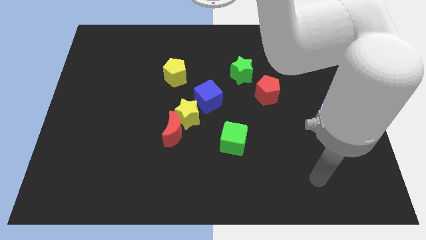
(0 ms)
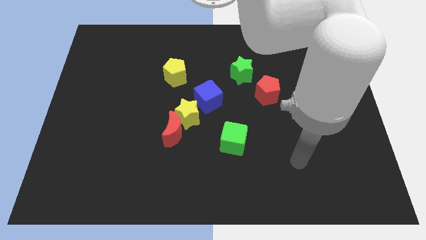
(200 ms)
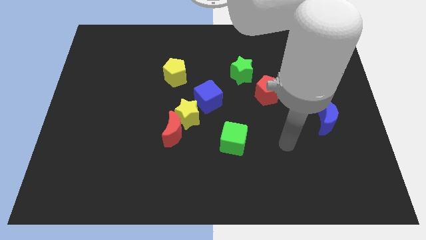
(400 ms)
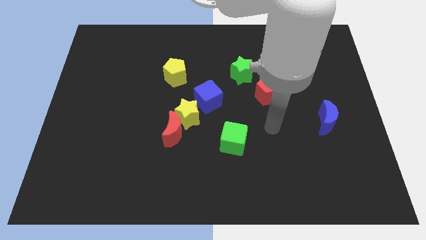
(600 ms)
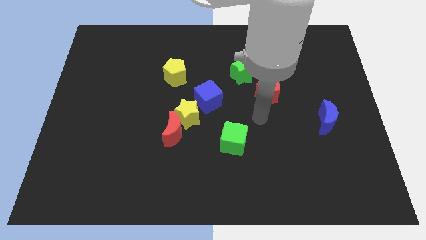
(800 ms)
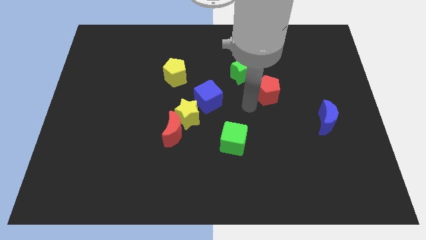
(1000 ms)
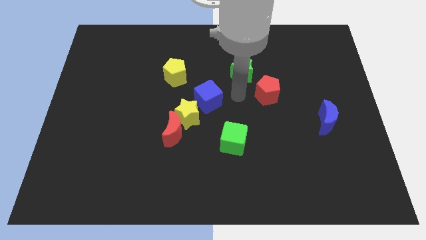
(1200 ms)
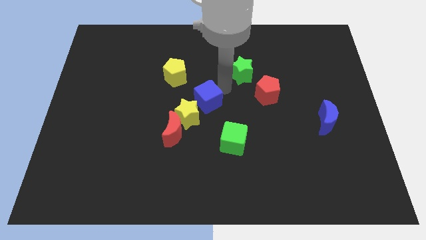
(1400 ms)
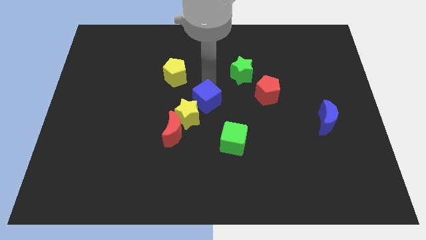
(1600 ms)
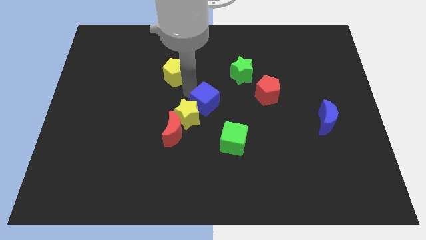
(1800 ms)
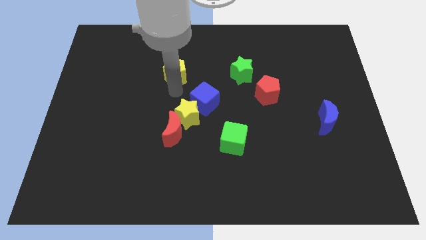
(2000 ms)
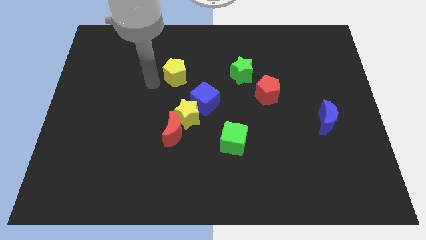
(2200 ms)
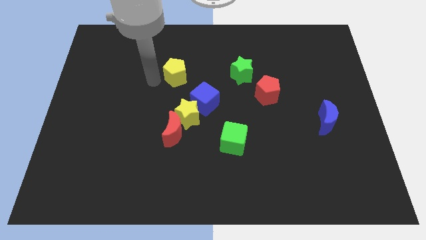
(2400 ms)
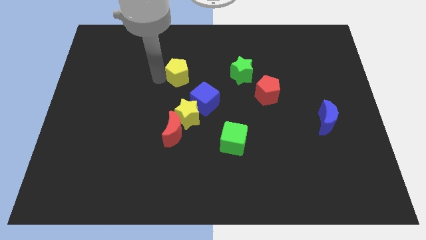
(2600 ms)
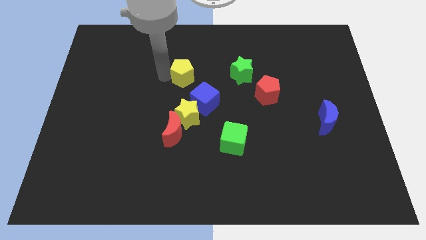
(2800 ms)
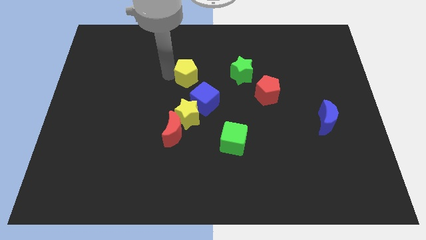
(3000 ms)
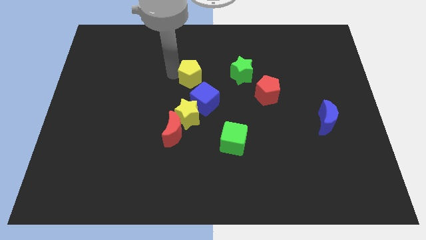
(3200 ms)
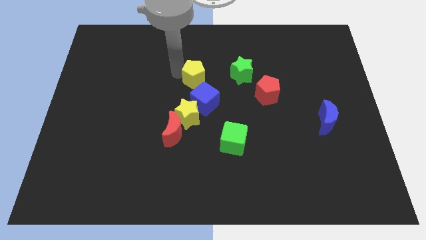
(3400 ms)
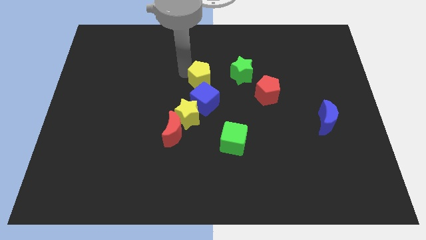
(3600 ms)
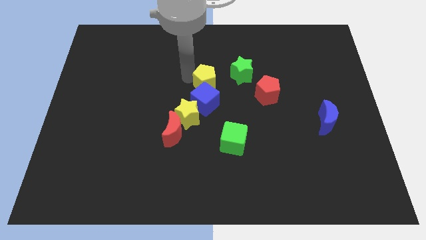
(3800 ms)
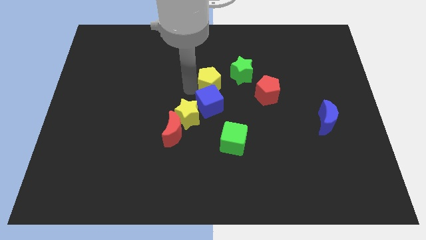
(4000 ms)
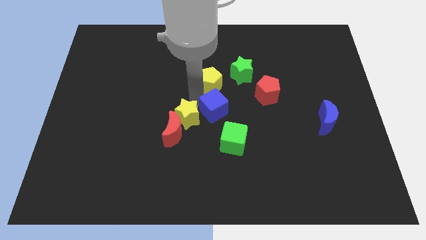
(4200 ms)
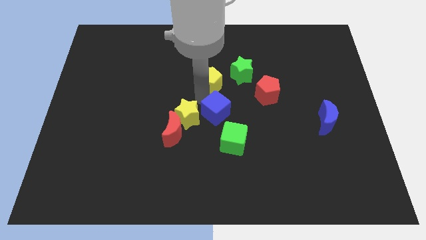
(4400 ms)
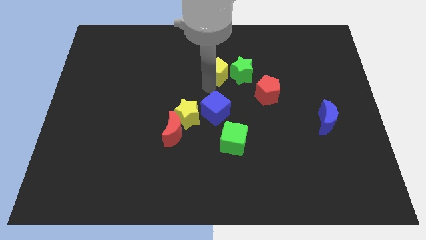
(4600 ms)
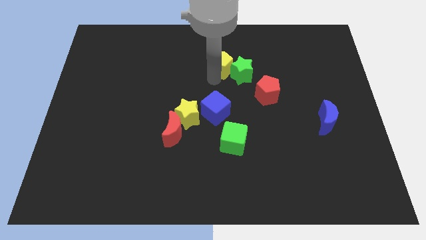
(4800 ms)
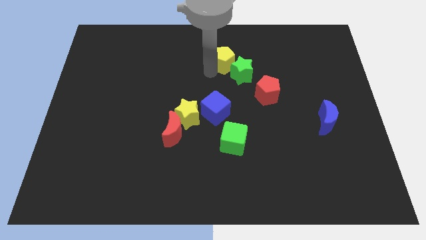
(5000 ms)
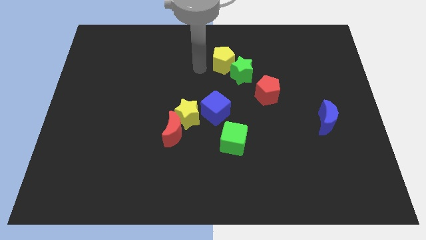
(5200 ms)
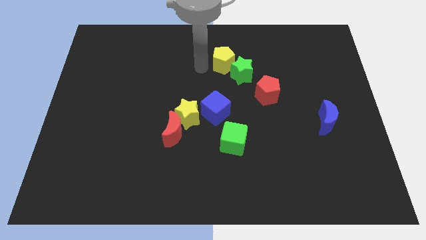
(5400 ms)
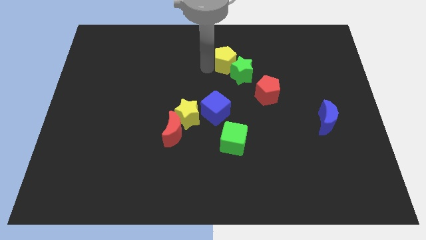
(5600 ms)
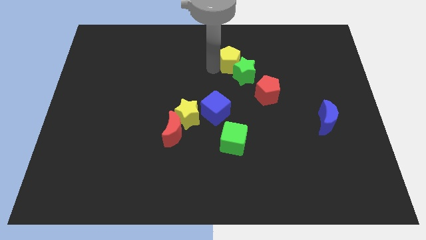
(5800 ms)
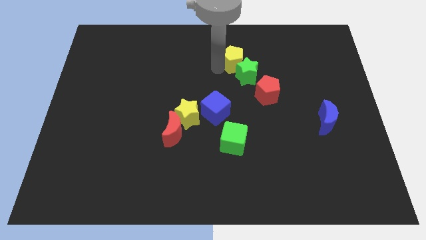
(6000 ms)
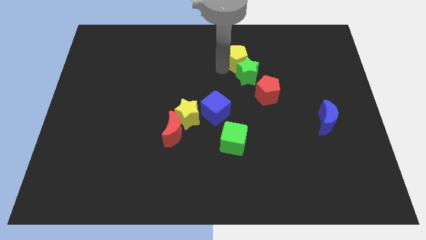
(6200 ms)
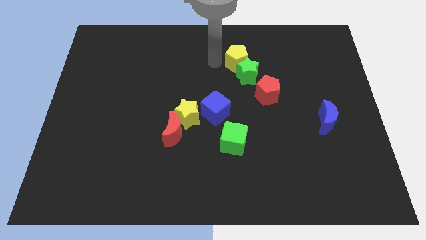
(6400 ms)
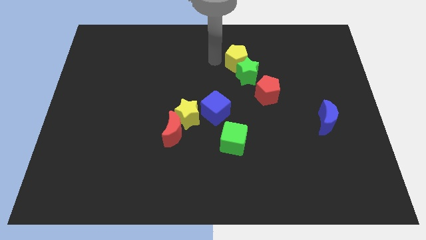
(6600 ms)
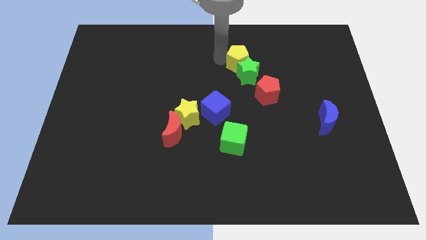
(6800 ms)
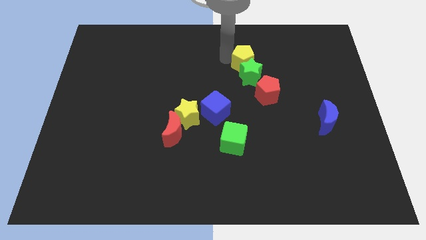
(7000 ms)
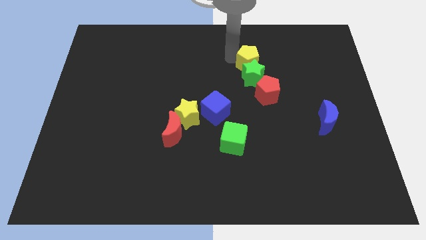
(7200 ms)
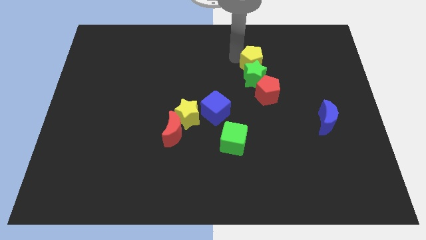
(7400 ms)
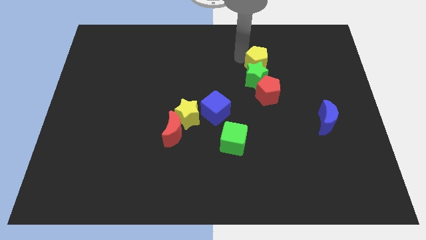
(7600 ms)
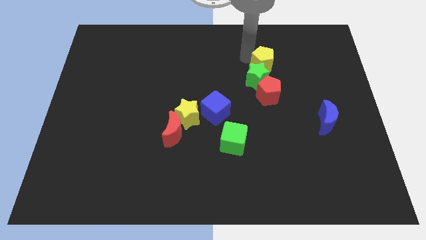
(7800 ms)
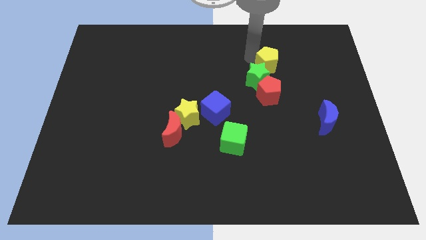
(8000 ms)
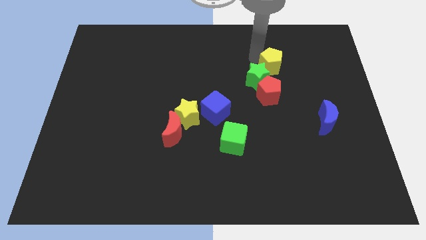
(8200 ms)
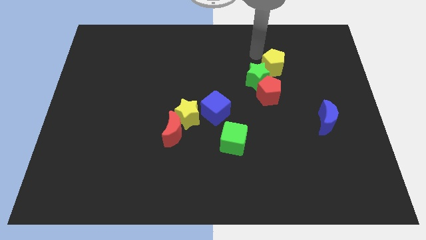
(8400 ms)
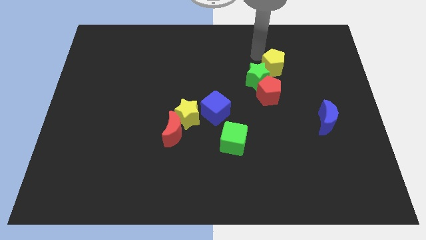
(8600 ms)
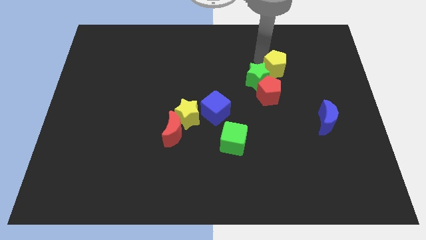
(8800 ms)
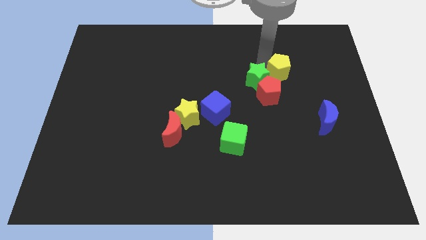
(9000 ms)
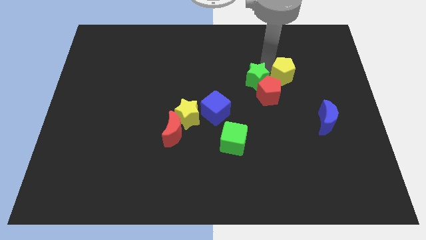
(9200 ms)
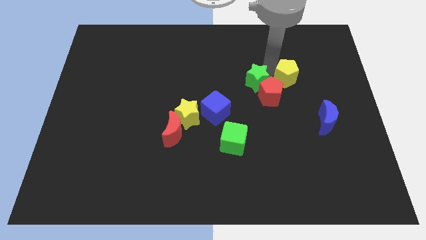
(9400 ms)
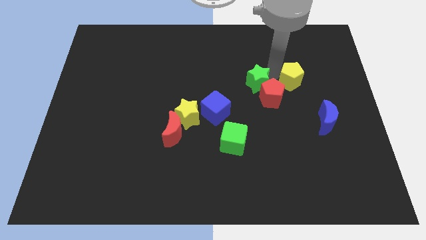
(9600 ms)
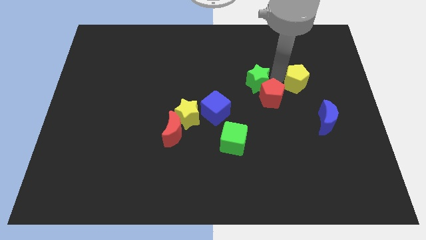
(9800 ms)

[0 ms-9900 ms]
push the yellow pentagon right of the red pentagon

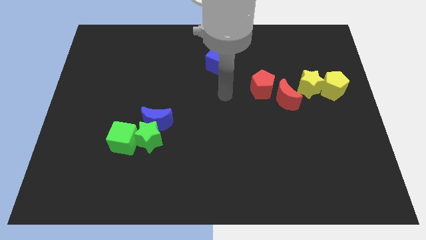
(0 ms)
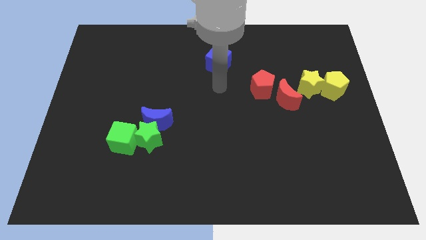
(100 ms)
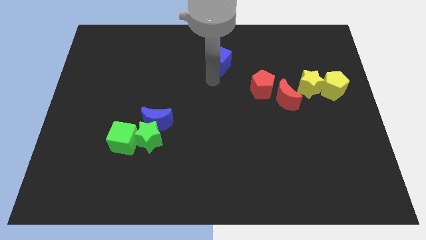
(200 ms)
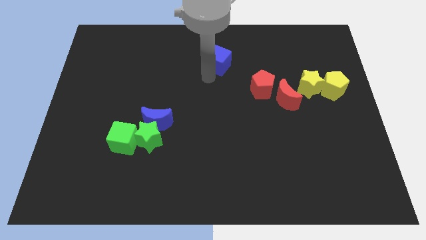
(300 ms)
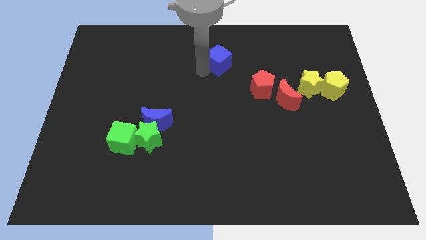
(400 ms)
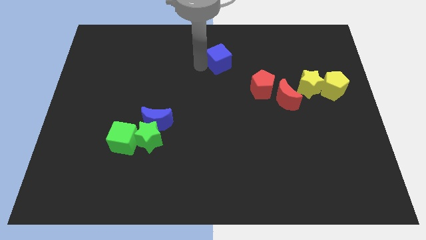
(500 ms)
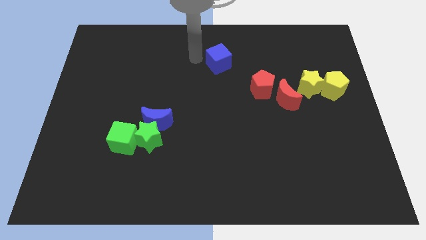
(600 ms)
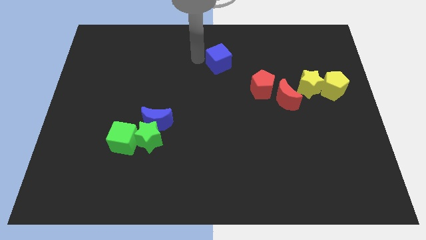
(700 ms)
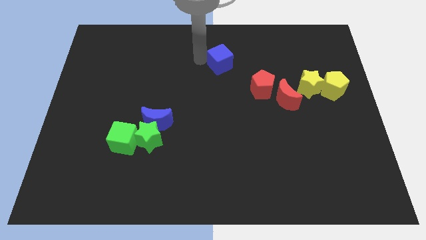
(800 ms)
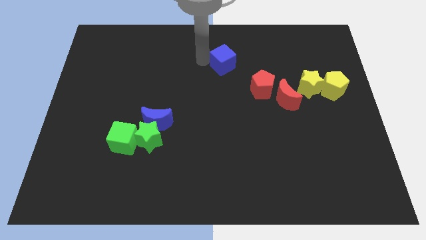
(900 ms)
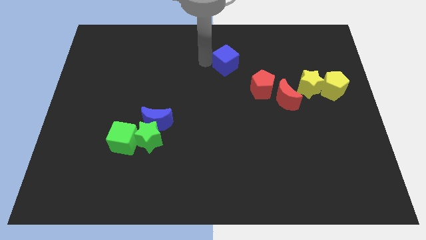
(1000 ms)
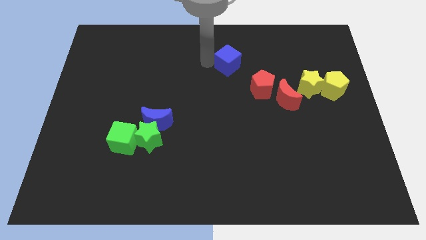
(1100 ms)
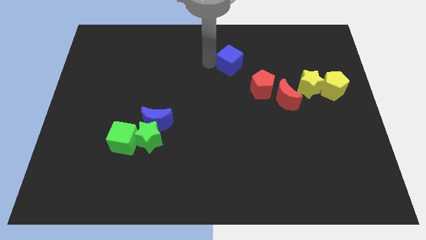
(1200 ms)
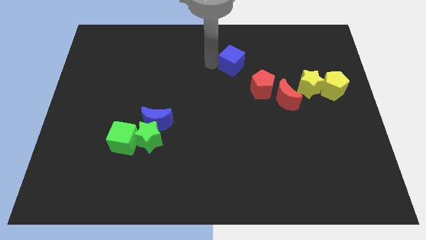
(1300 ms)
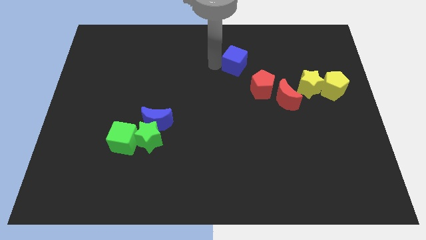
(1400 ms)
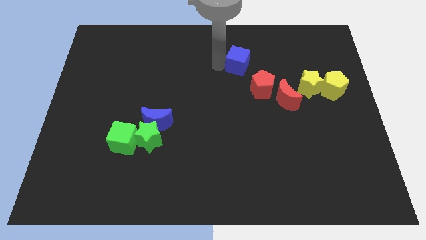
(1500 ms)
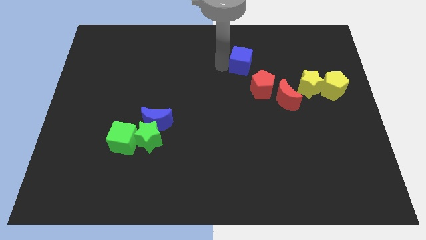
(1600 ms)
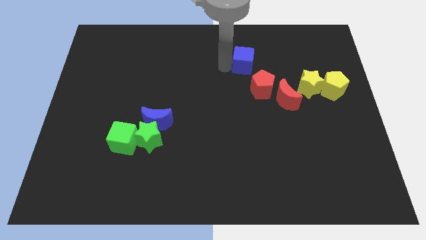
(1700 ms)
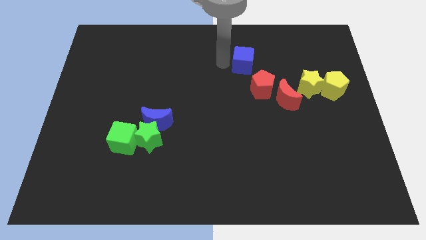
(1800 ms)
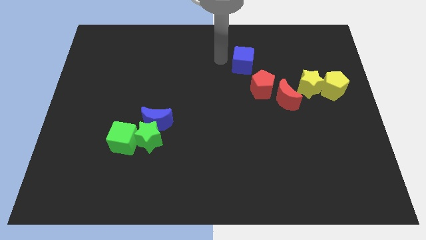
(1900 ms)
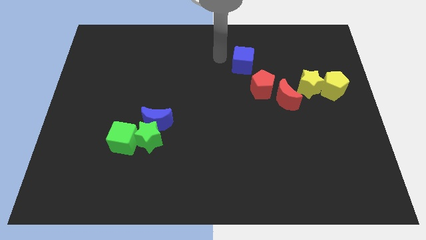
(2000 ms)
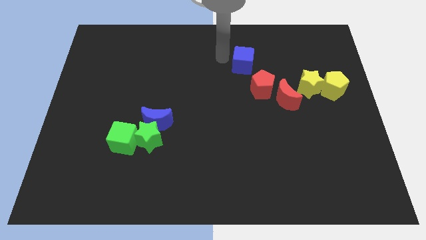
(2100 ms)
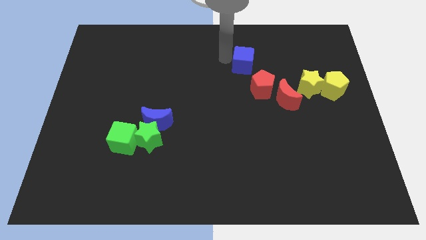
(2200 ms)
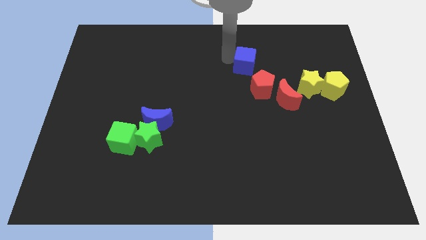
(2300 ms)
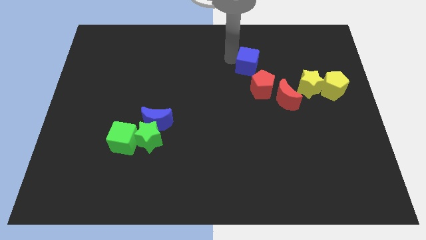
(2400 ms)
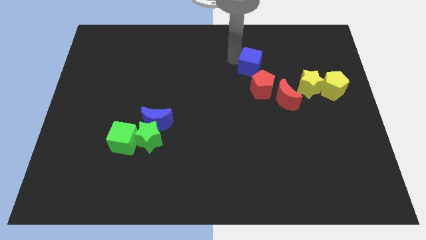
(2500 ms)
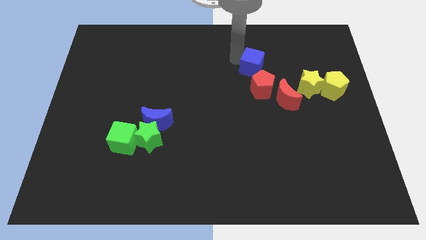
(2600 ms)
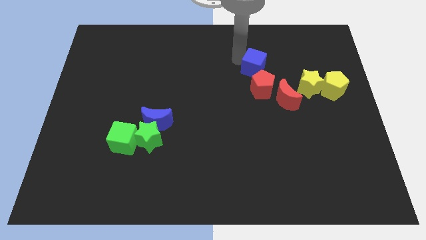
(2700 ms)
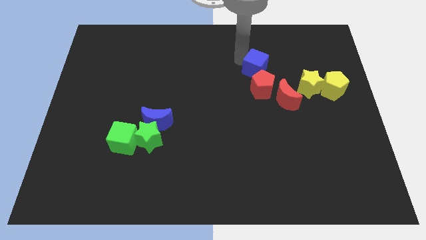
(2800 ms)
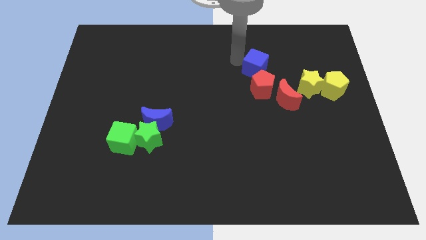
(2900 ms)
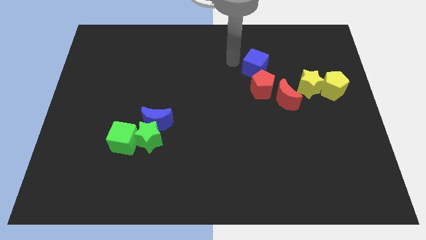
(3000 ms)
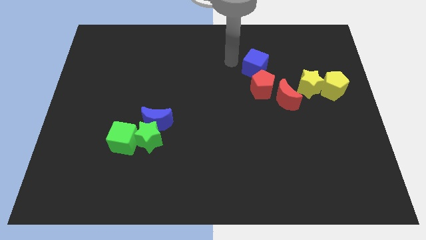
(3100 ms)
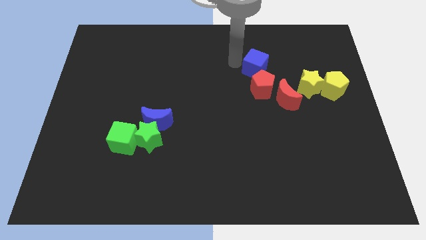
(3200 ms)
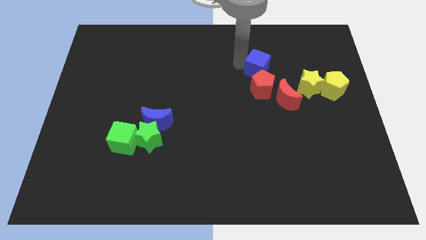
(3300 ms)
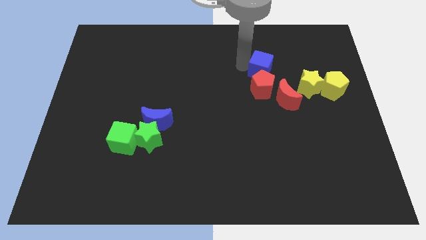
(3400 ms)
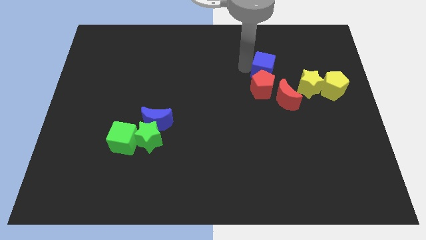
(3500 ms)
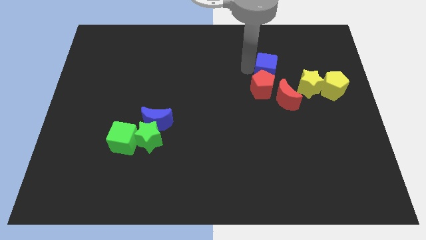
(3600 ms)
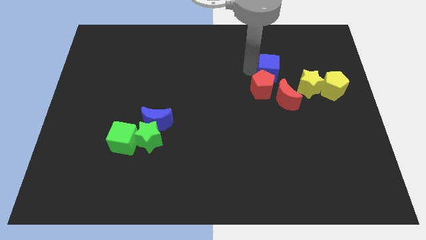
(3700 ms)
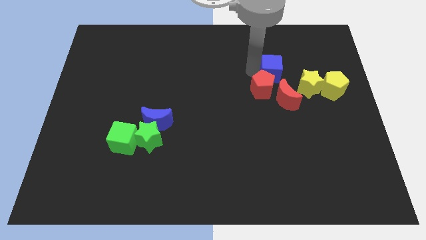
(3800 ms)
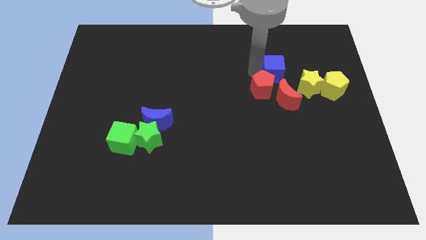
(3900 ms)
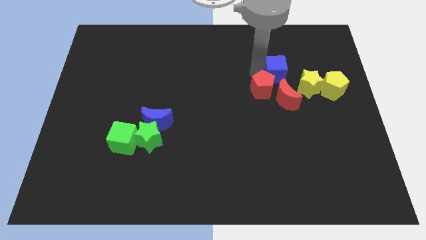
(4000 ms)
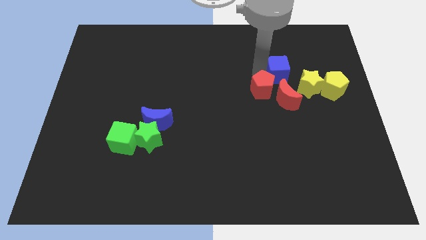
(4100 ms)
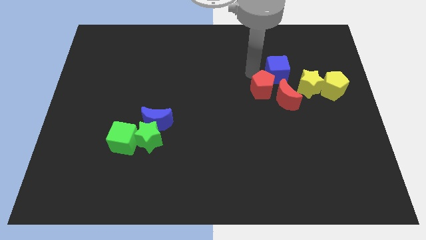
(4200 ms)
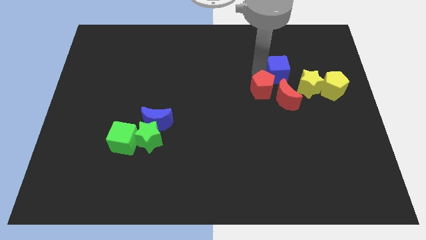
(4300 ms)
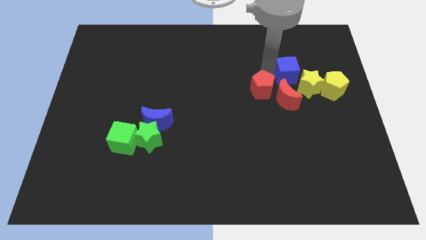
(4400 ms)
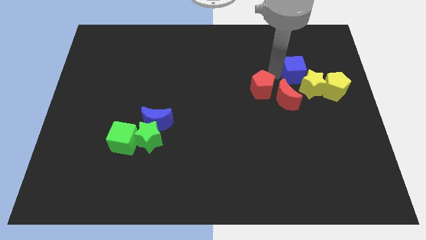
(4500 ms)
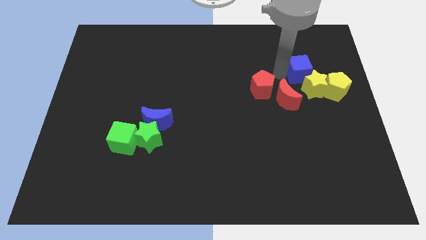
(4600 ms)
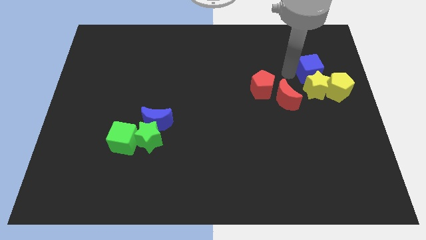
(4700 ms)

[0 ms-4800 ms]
put the blue cube diagonally up and to the right of the yellow star
